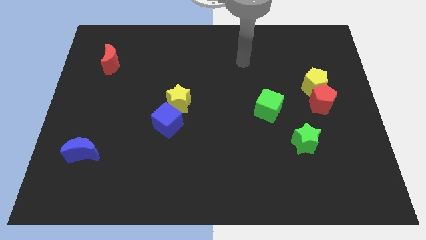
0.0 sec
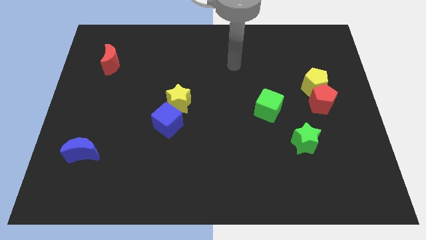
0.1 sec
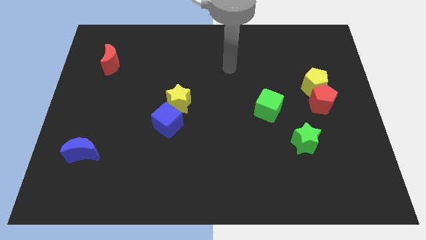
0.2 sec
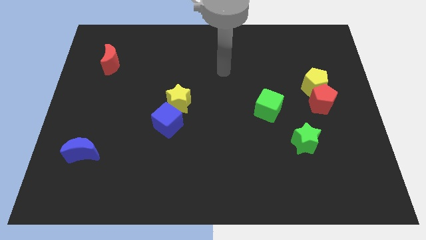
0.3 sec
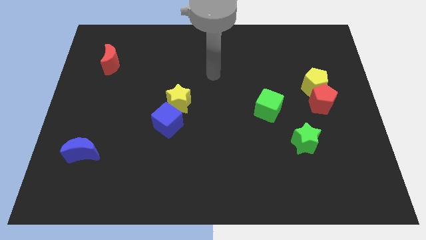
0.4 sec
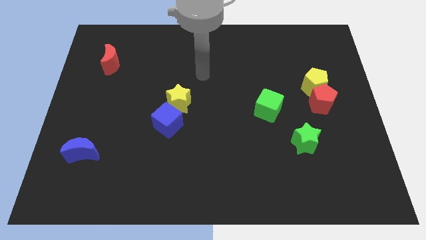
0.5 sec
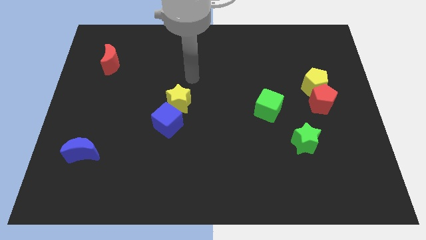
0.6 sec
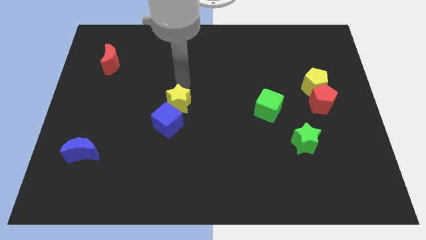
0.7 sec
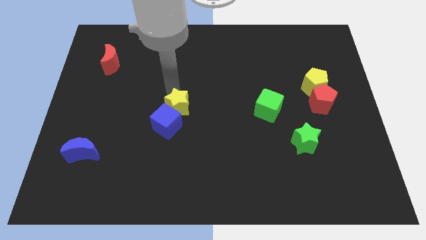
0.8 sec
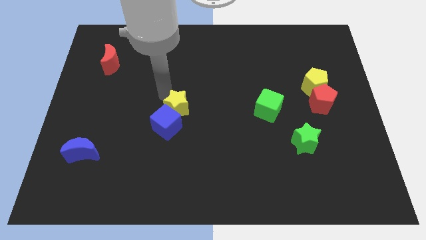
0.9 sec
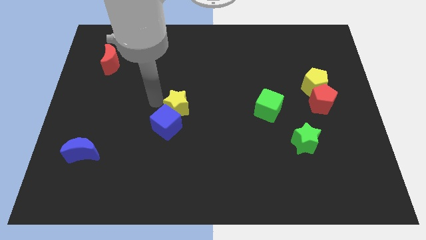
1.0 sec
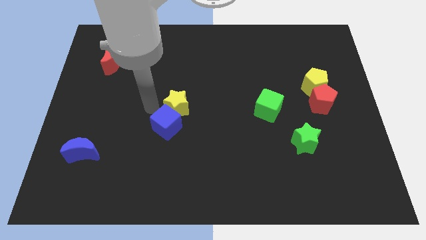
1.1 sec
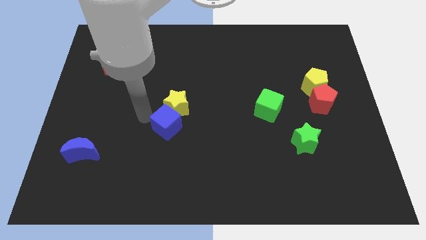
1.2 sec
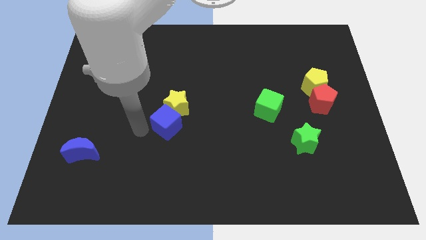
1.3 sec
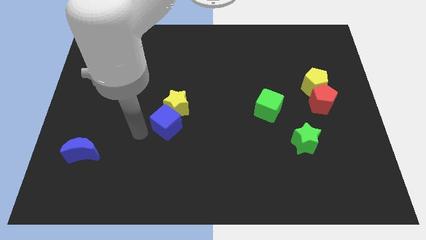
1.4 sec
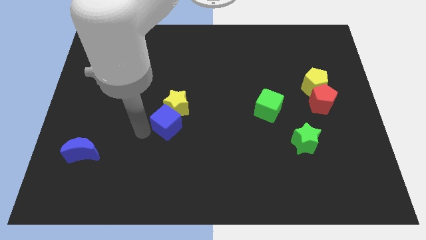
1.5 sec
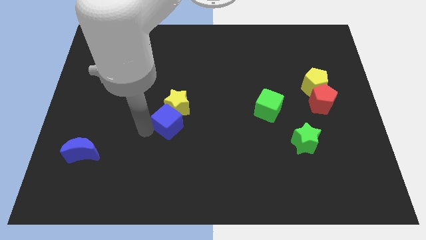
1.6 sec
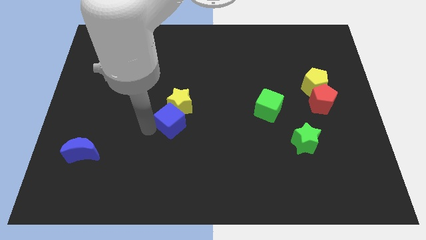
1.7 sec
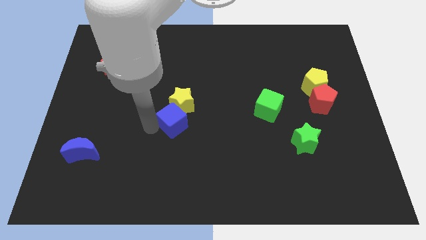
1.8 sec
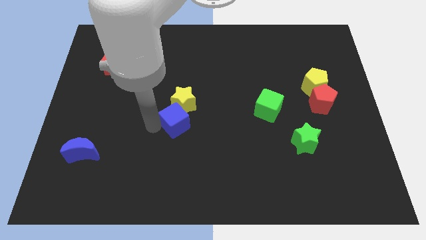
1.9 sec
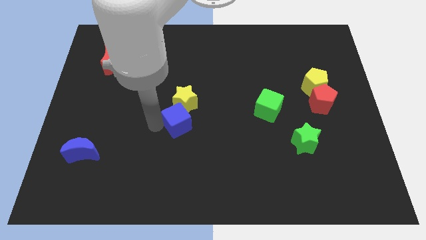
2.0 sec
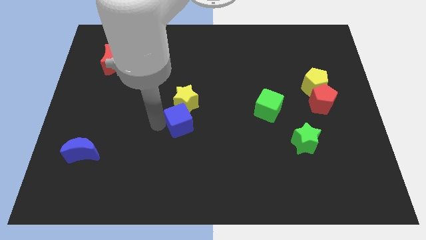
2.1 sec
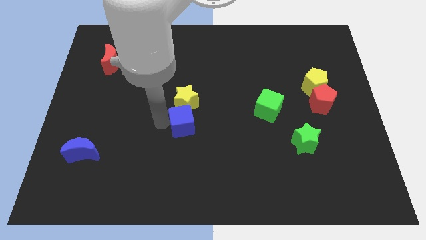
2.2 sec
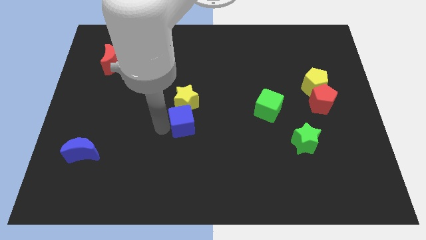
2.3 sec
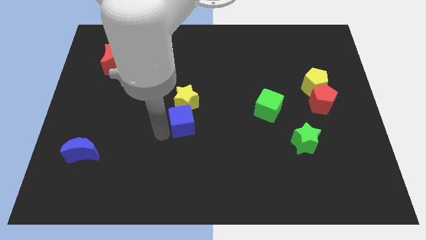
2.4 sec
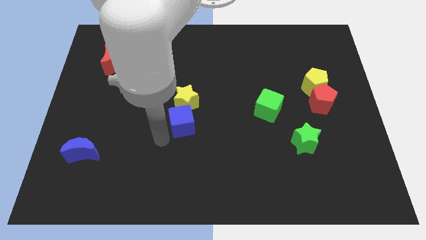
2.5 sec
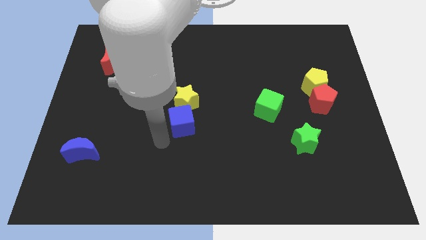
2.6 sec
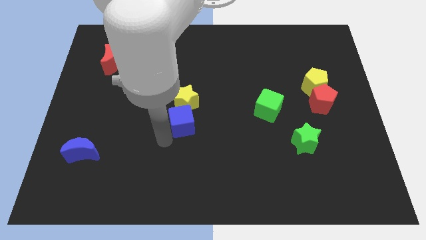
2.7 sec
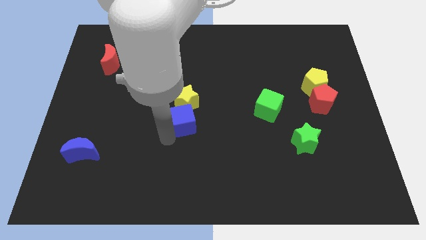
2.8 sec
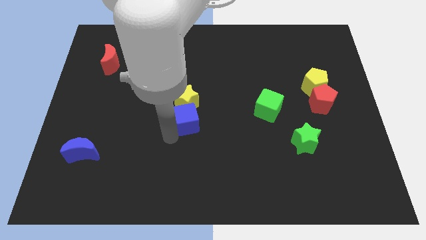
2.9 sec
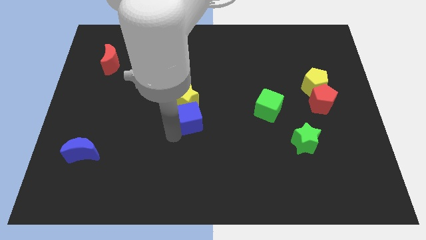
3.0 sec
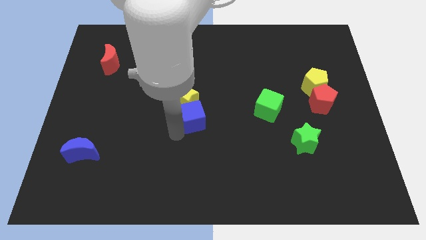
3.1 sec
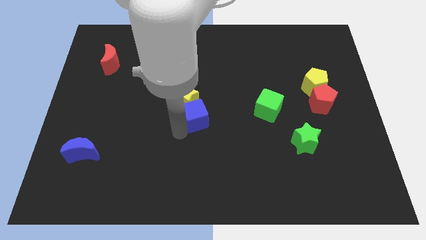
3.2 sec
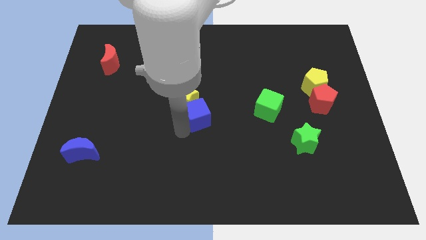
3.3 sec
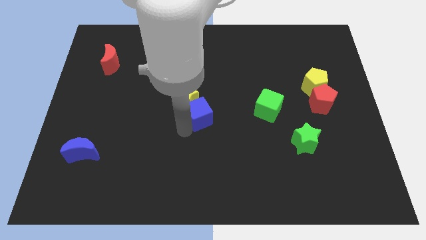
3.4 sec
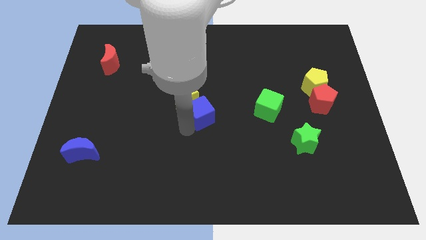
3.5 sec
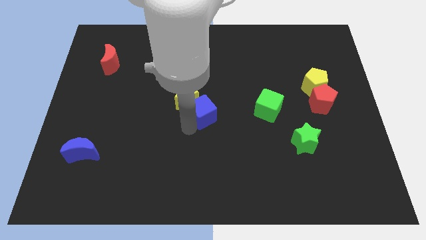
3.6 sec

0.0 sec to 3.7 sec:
push the blue cube a little diagonally upwards and right

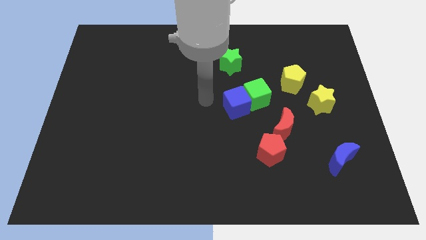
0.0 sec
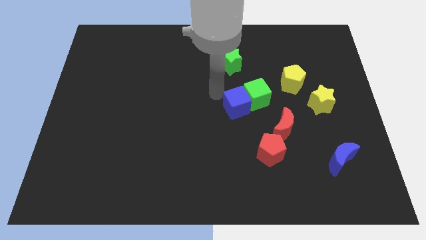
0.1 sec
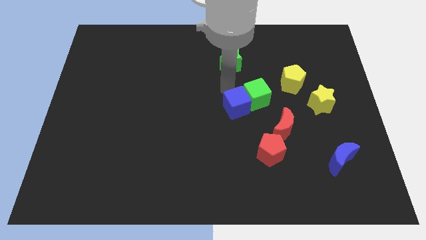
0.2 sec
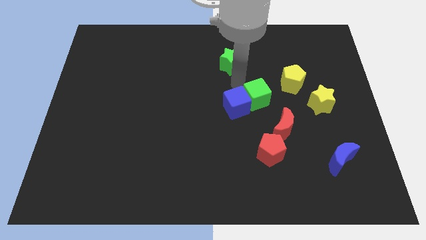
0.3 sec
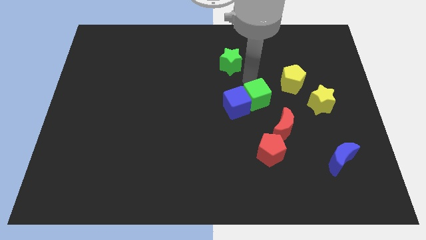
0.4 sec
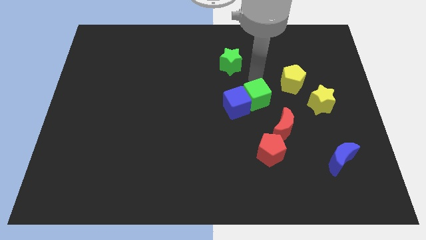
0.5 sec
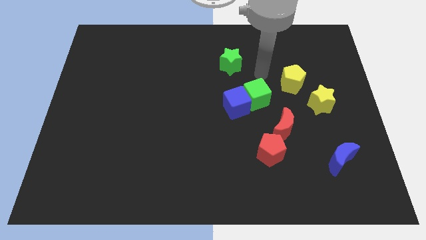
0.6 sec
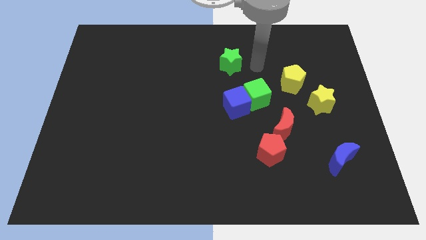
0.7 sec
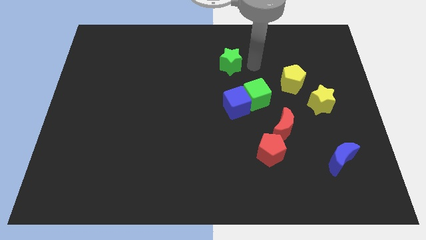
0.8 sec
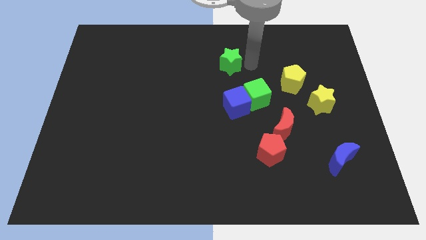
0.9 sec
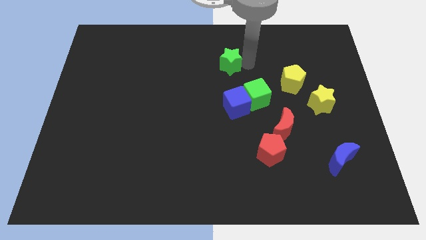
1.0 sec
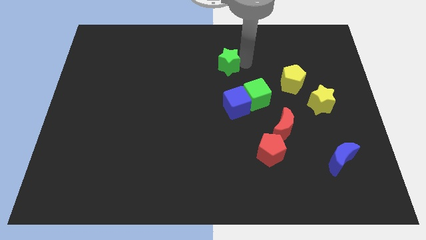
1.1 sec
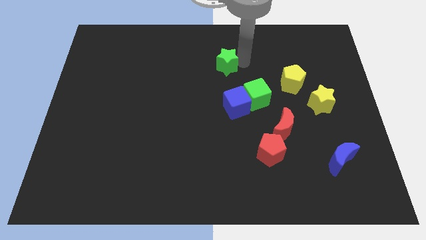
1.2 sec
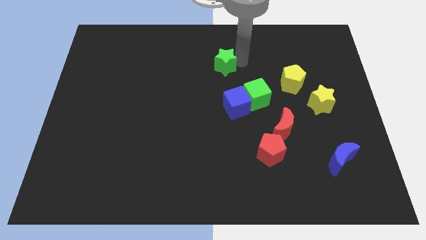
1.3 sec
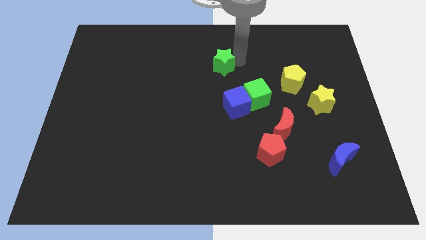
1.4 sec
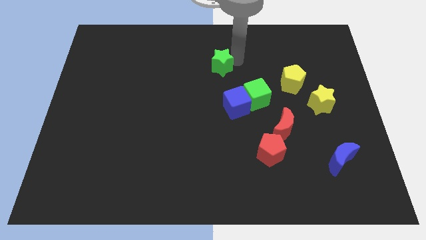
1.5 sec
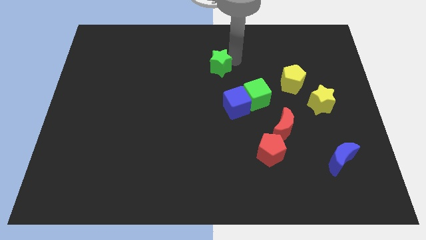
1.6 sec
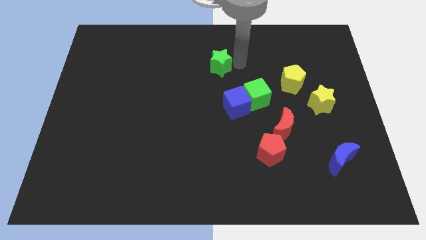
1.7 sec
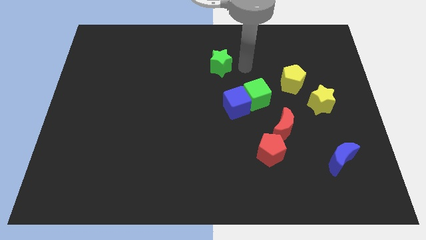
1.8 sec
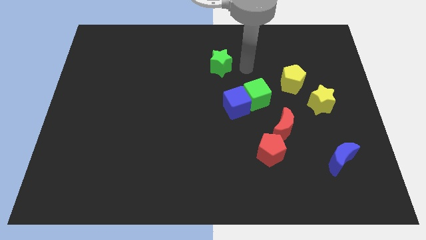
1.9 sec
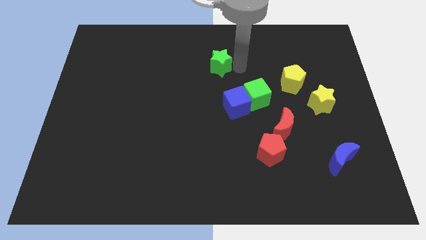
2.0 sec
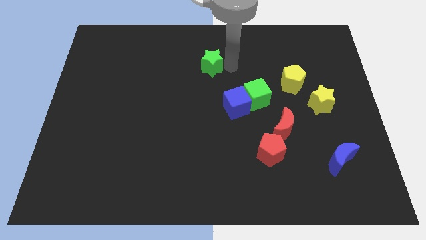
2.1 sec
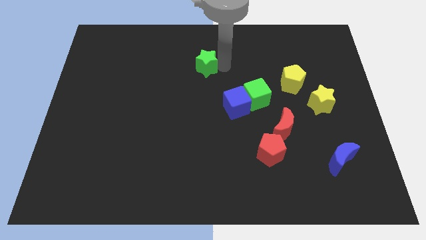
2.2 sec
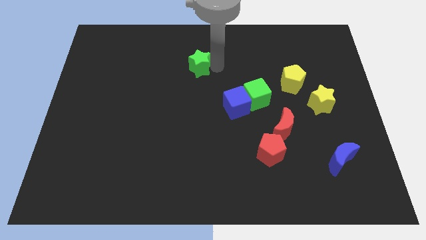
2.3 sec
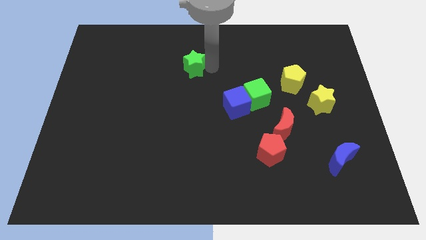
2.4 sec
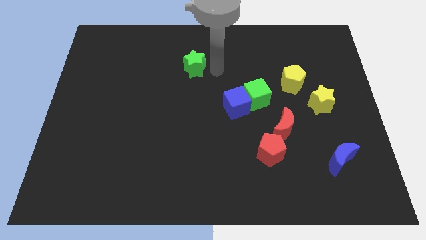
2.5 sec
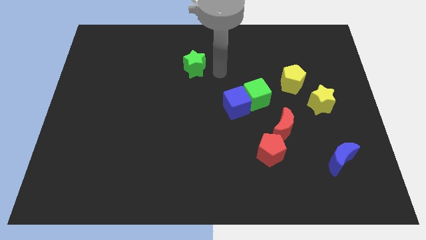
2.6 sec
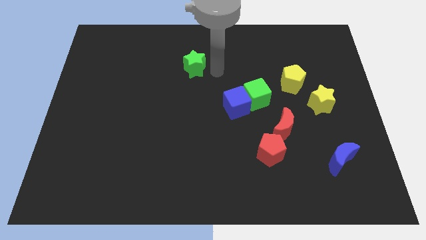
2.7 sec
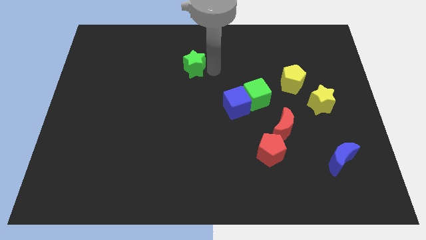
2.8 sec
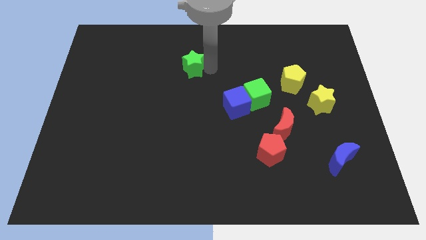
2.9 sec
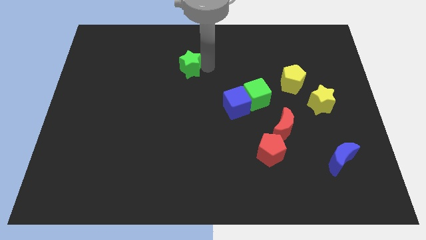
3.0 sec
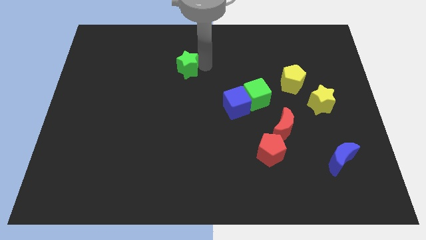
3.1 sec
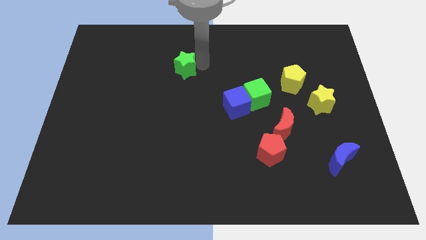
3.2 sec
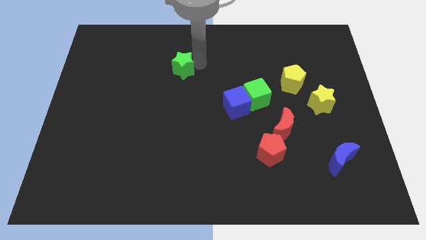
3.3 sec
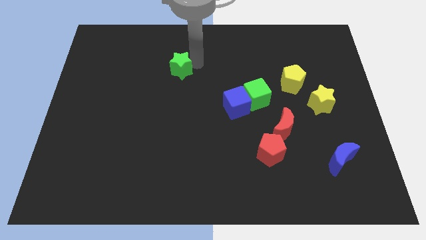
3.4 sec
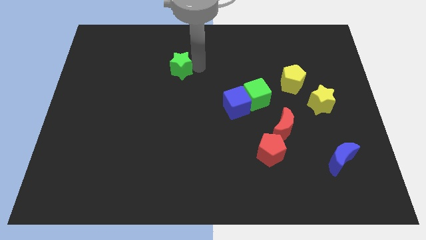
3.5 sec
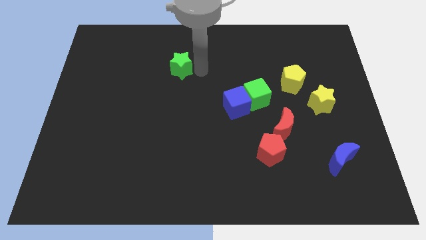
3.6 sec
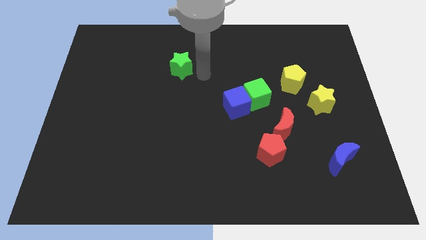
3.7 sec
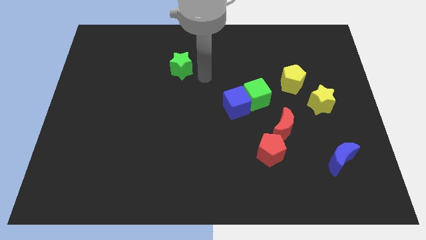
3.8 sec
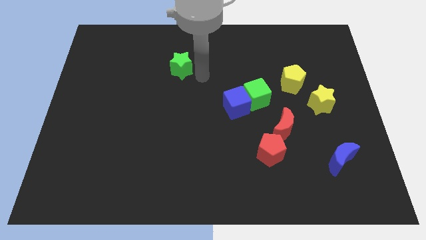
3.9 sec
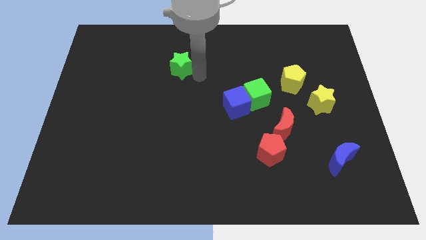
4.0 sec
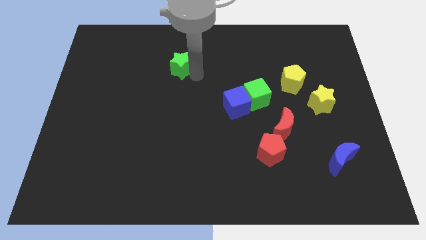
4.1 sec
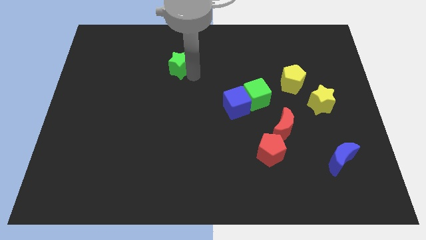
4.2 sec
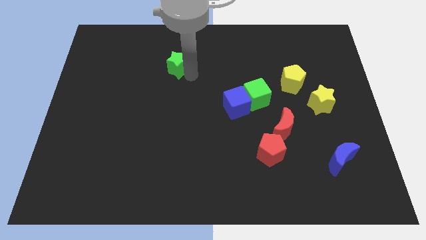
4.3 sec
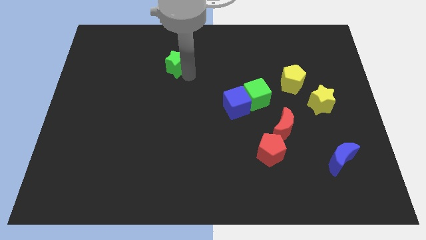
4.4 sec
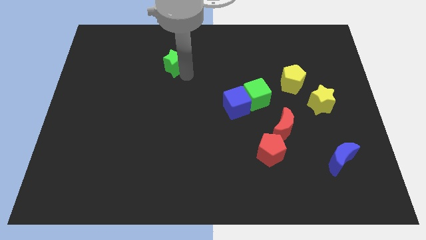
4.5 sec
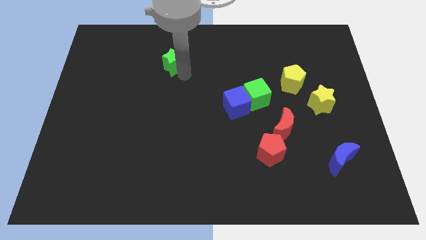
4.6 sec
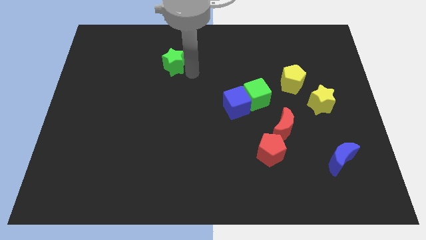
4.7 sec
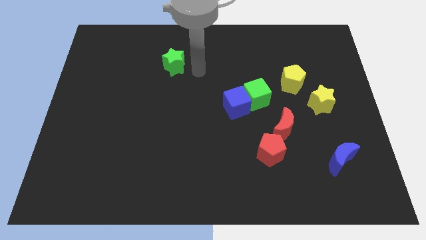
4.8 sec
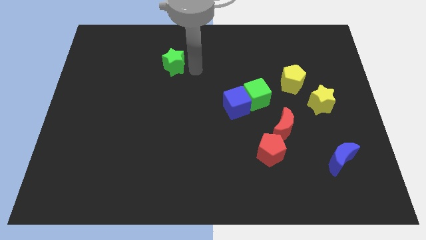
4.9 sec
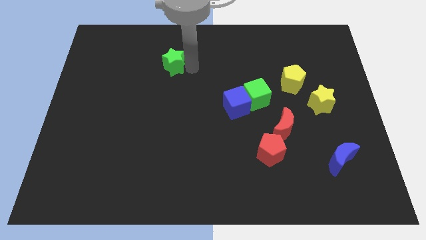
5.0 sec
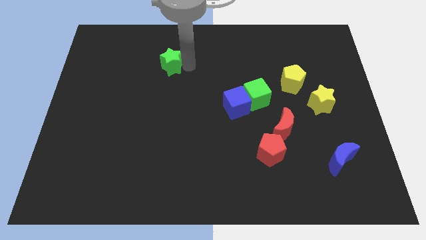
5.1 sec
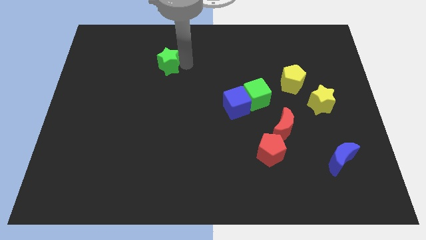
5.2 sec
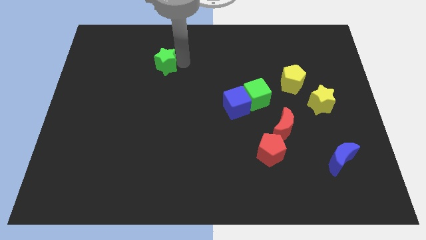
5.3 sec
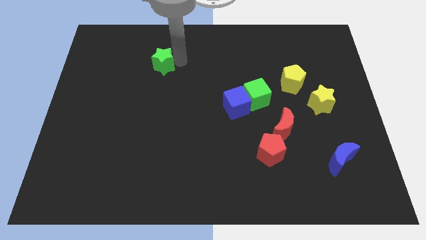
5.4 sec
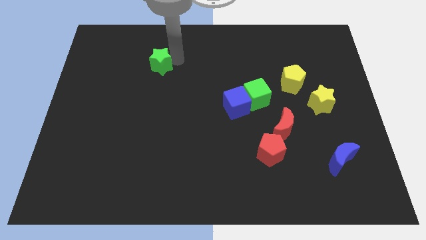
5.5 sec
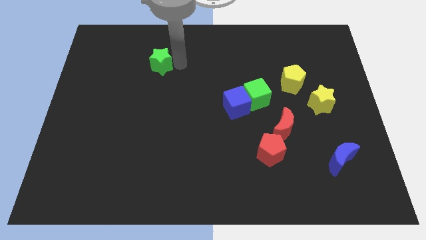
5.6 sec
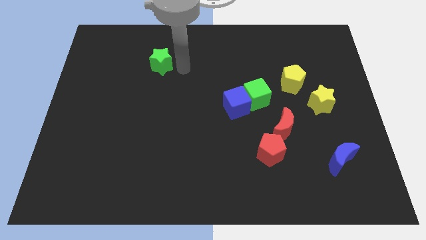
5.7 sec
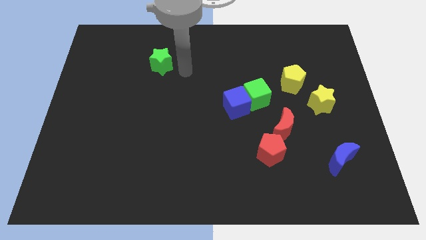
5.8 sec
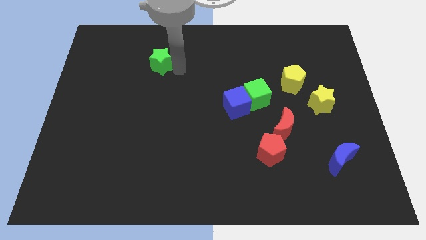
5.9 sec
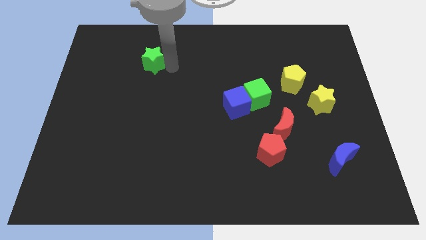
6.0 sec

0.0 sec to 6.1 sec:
slide the green star to the left
